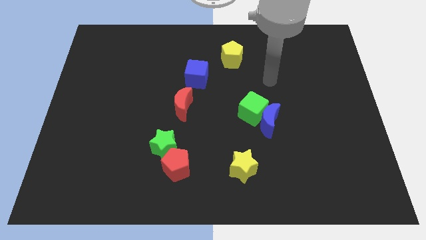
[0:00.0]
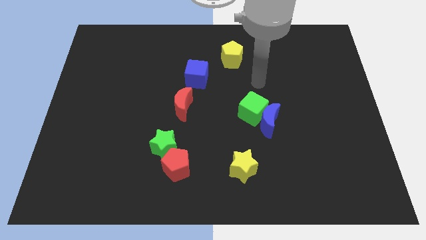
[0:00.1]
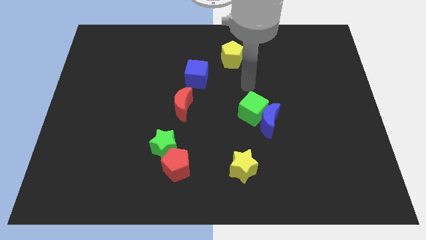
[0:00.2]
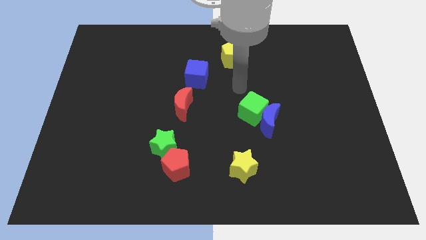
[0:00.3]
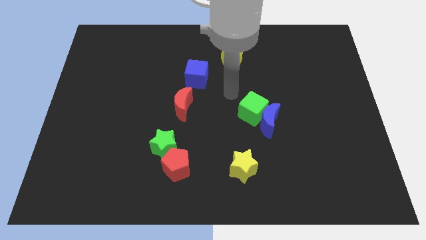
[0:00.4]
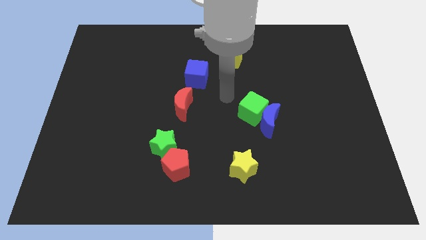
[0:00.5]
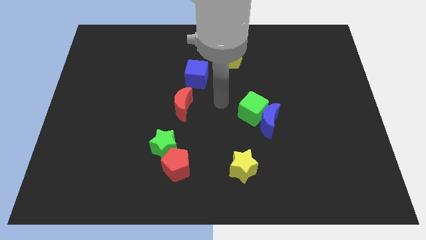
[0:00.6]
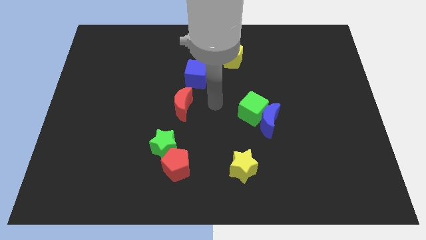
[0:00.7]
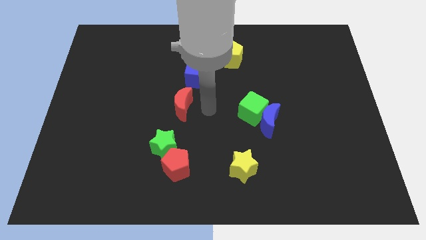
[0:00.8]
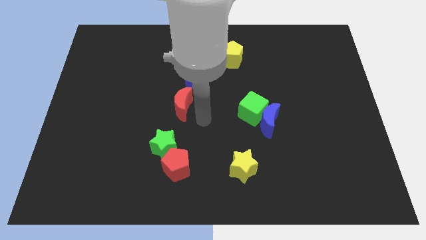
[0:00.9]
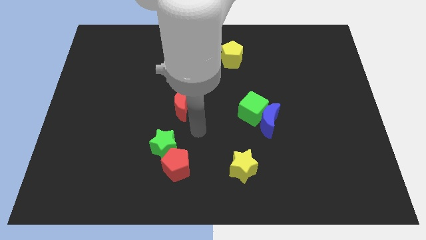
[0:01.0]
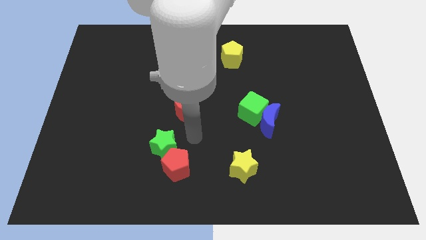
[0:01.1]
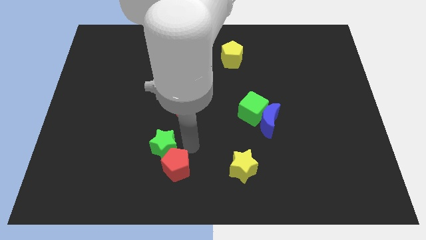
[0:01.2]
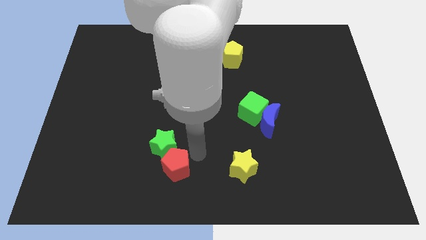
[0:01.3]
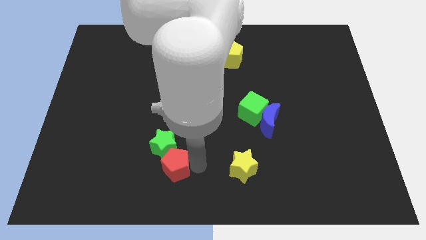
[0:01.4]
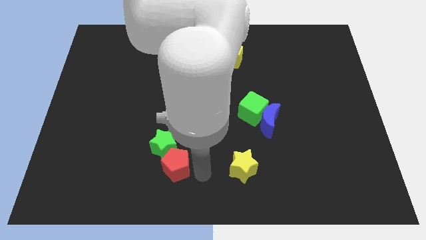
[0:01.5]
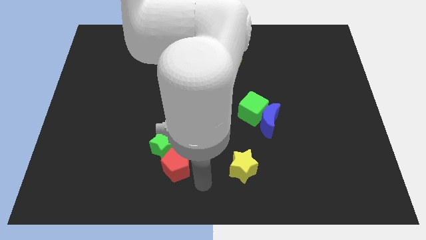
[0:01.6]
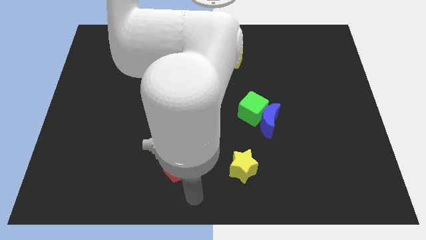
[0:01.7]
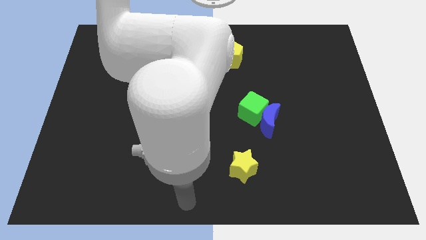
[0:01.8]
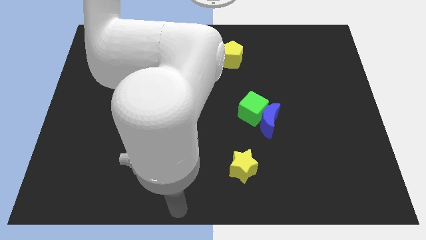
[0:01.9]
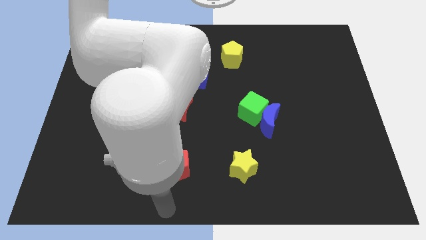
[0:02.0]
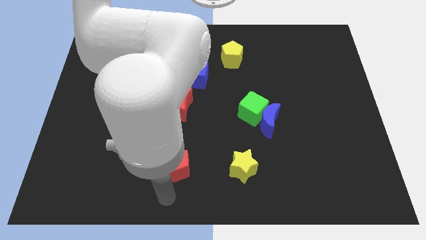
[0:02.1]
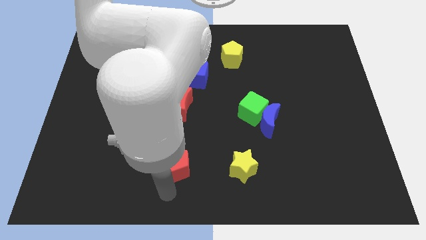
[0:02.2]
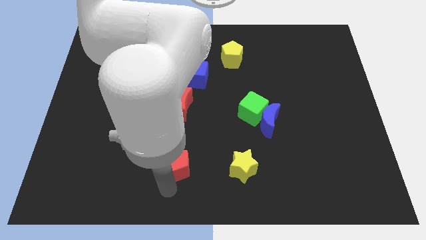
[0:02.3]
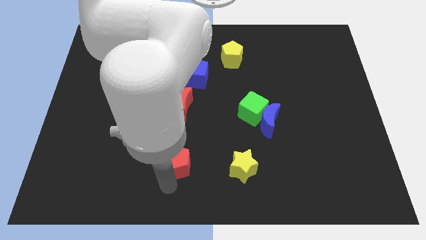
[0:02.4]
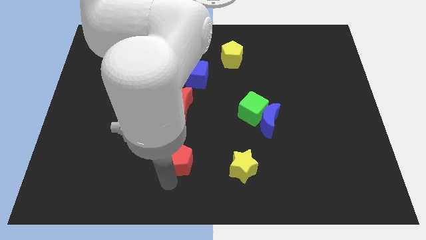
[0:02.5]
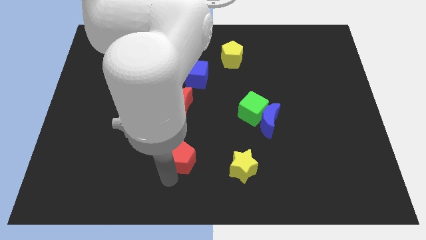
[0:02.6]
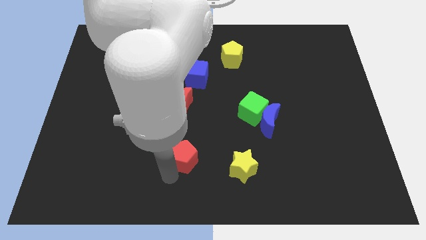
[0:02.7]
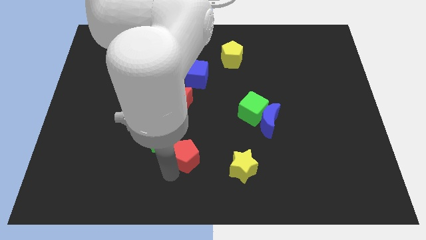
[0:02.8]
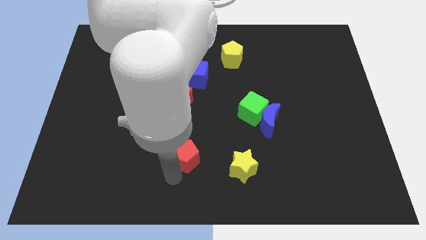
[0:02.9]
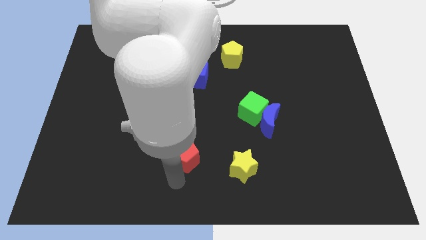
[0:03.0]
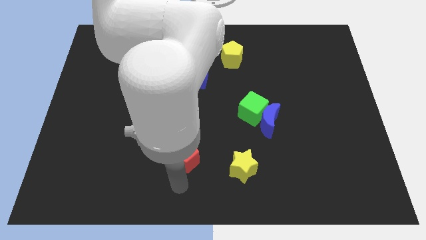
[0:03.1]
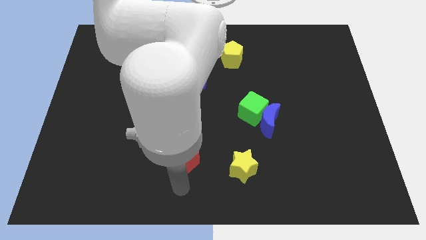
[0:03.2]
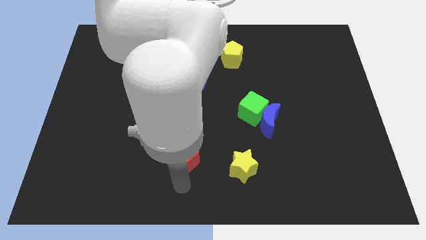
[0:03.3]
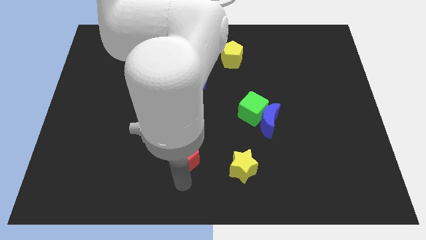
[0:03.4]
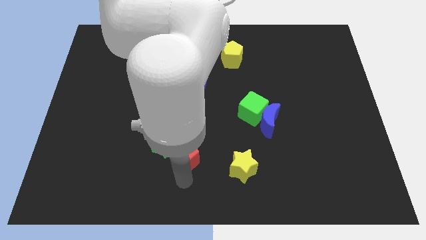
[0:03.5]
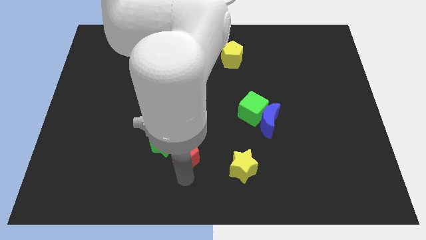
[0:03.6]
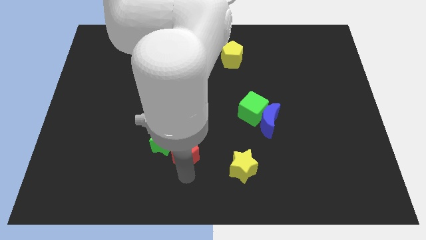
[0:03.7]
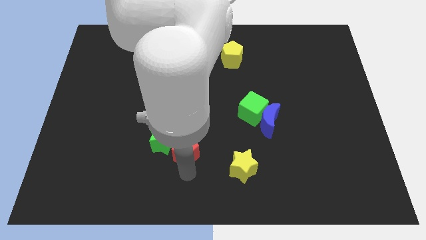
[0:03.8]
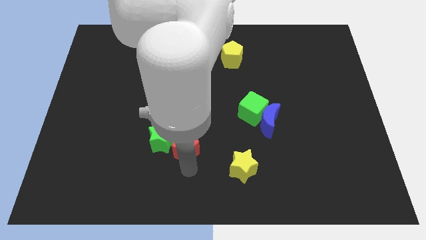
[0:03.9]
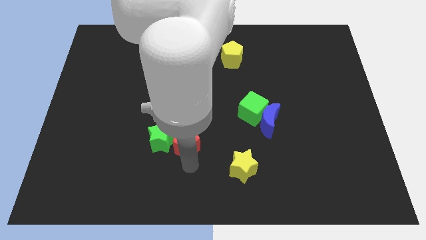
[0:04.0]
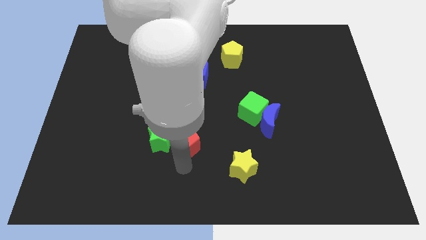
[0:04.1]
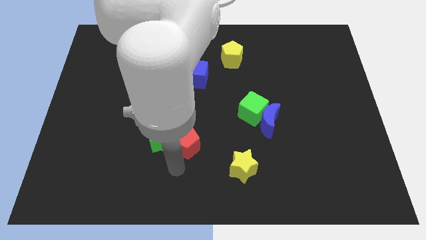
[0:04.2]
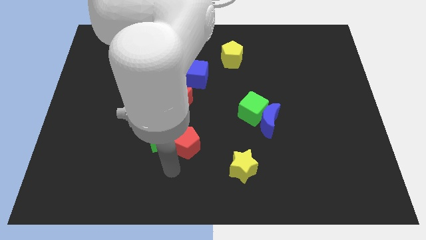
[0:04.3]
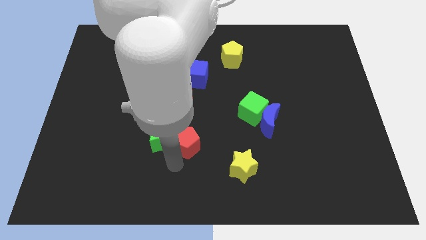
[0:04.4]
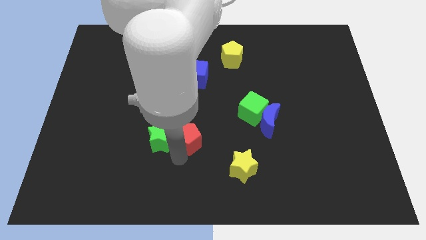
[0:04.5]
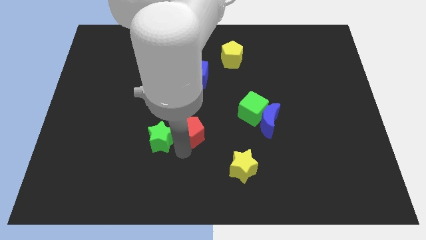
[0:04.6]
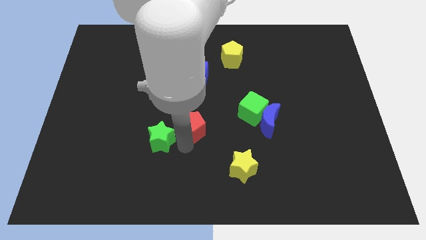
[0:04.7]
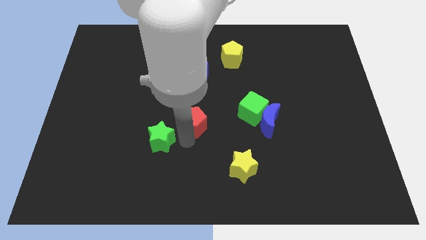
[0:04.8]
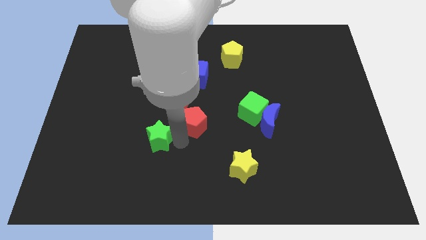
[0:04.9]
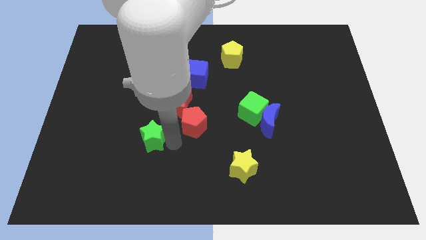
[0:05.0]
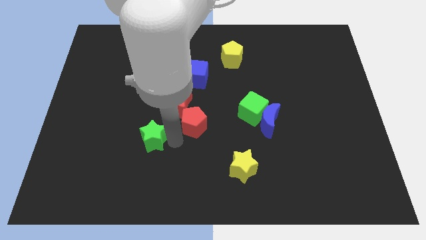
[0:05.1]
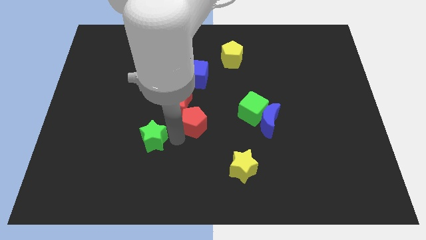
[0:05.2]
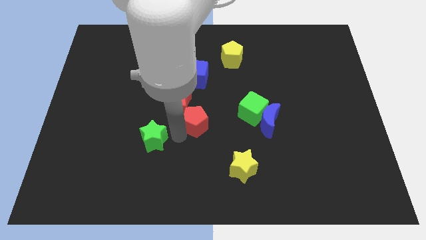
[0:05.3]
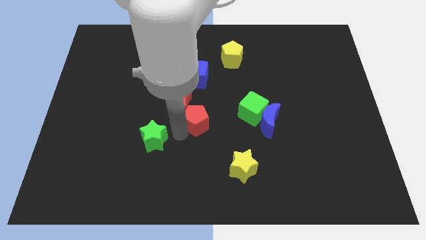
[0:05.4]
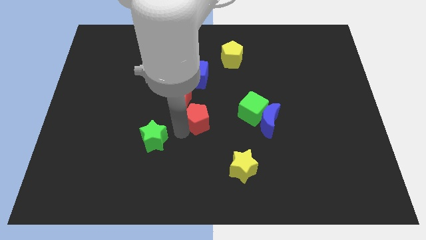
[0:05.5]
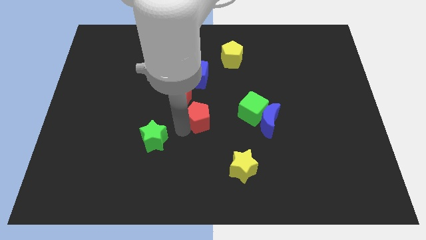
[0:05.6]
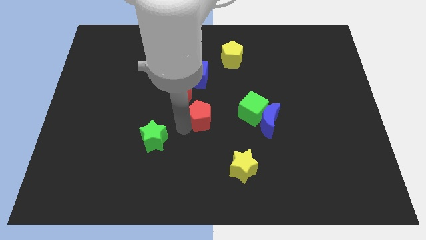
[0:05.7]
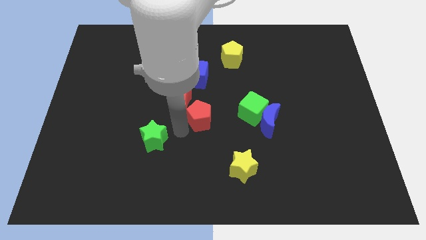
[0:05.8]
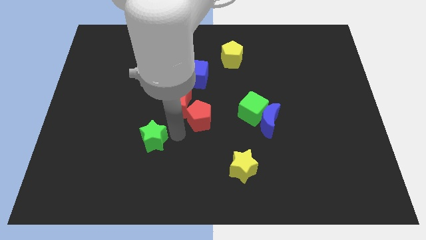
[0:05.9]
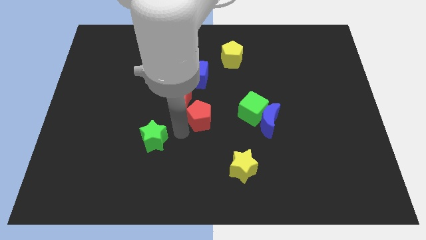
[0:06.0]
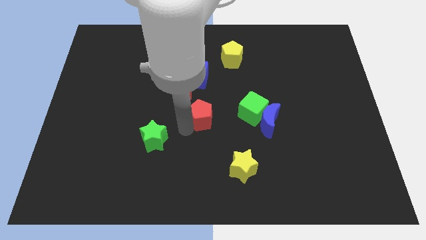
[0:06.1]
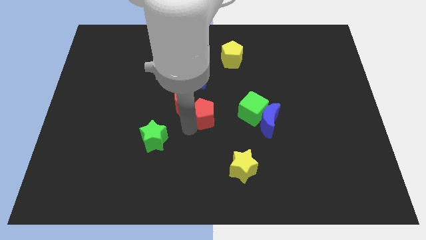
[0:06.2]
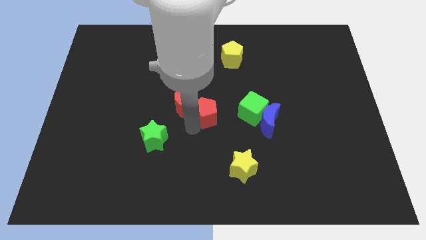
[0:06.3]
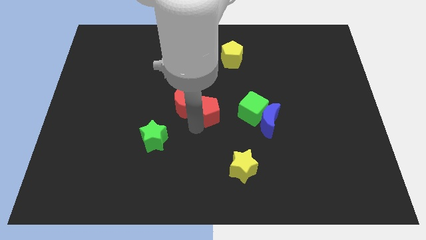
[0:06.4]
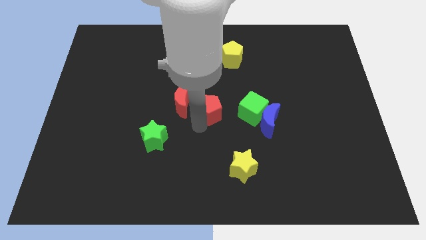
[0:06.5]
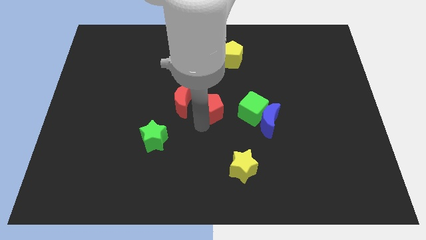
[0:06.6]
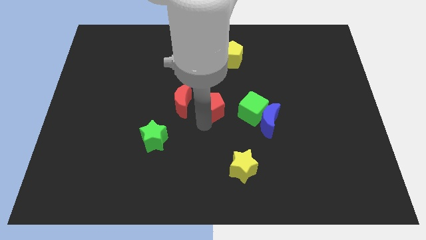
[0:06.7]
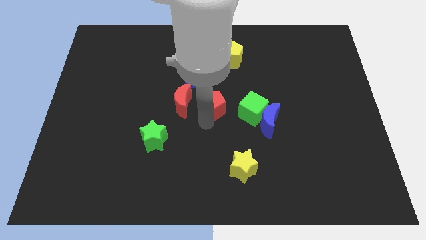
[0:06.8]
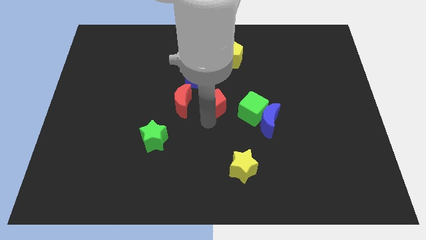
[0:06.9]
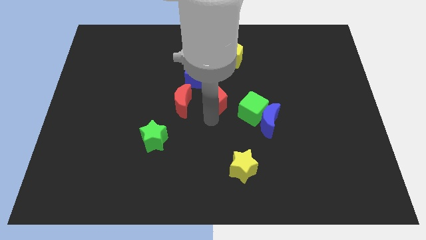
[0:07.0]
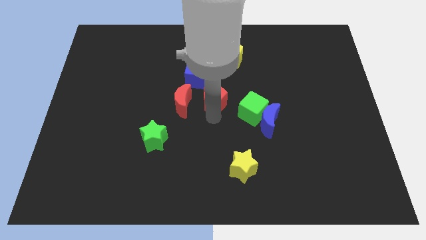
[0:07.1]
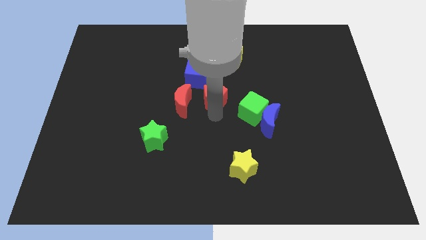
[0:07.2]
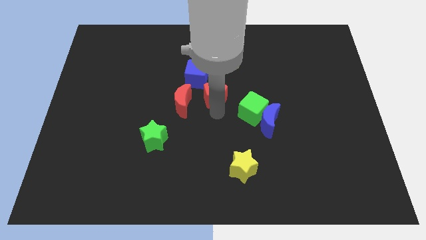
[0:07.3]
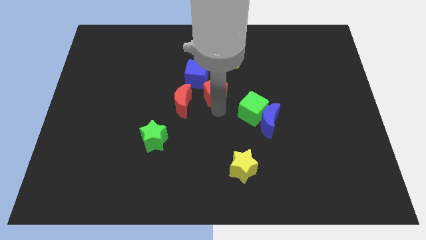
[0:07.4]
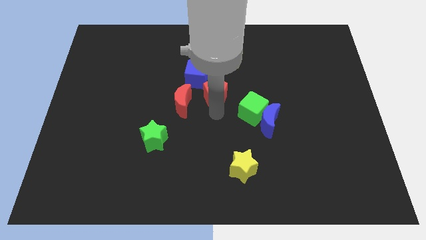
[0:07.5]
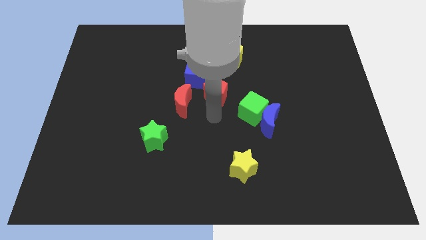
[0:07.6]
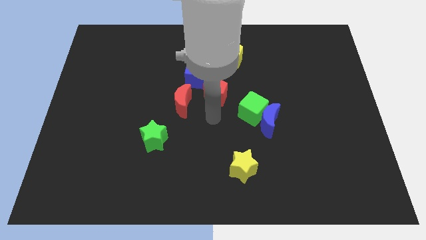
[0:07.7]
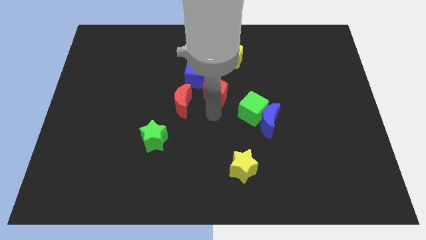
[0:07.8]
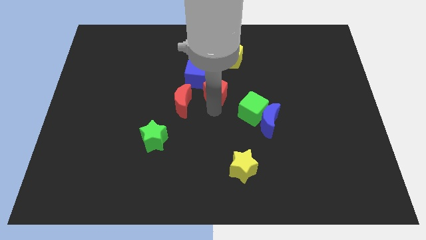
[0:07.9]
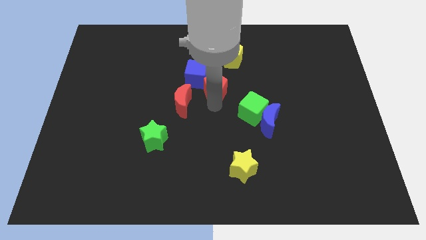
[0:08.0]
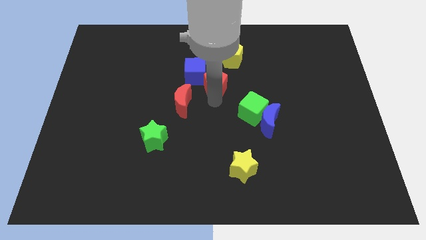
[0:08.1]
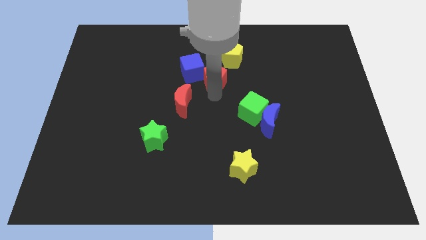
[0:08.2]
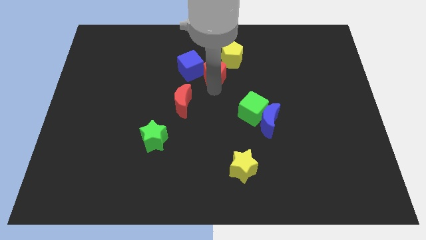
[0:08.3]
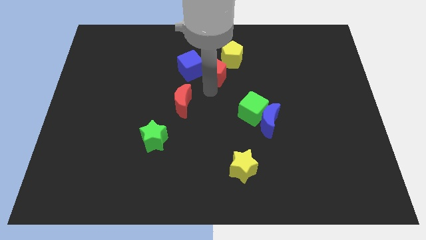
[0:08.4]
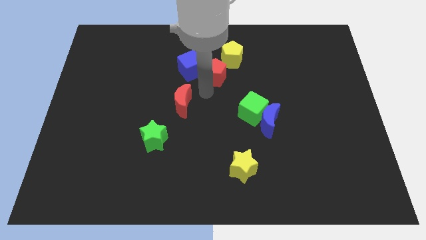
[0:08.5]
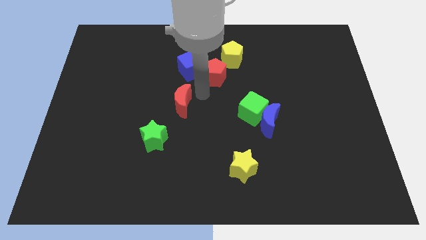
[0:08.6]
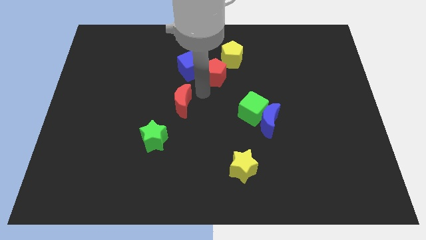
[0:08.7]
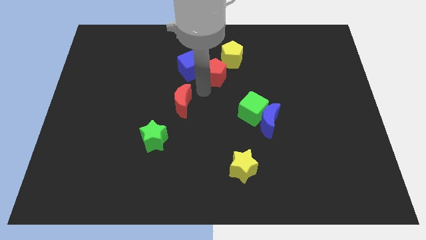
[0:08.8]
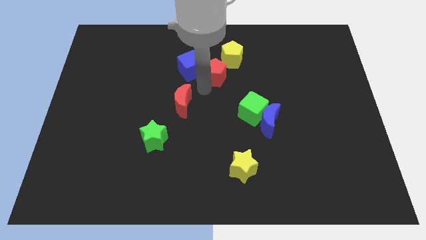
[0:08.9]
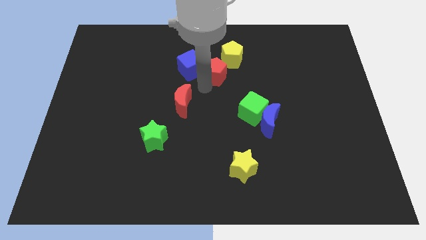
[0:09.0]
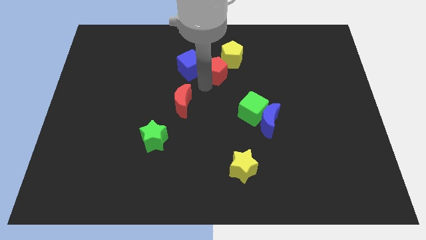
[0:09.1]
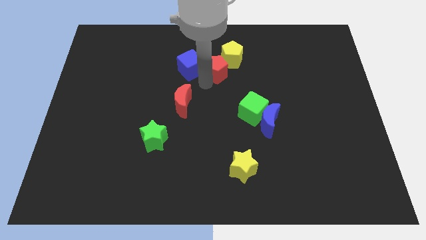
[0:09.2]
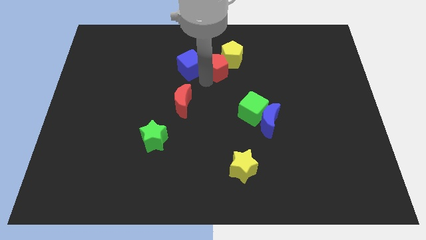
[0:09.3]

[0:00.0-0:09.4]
slide the red pentagon to the yellow pentagon
